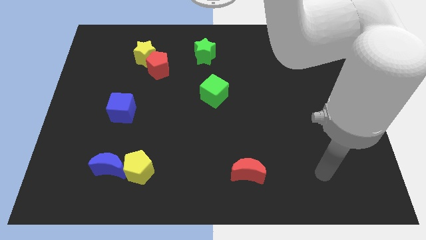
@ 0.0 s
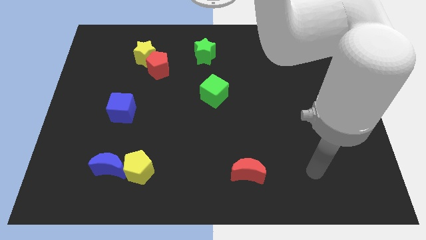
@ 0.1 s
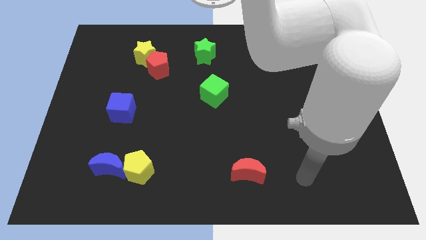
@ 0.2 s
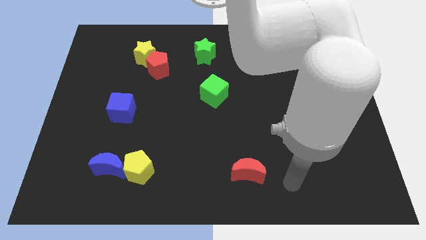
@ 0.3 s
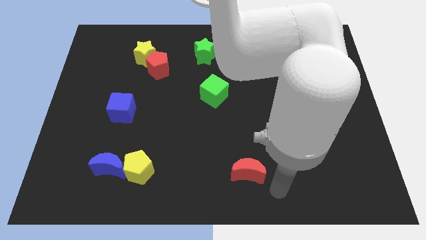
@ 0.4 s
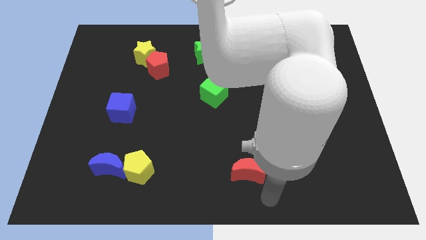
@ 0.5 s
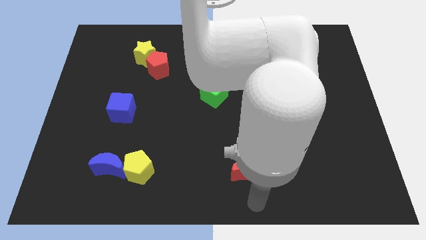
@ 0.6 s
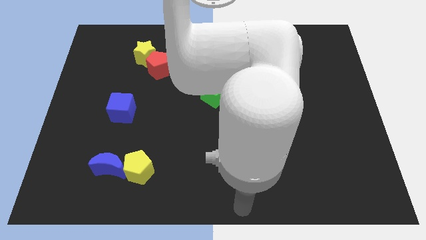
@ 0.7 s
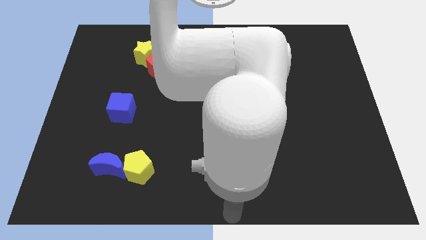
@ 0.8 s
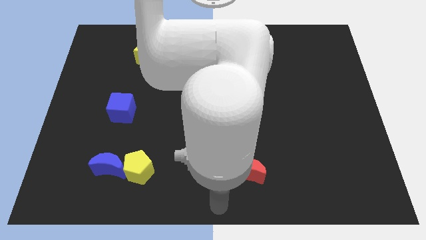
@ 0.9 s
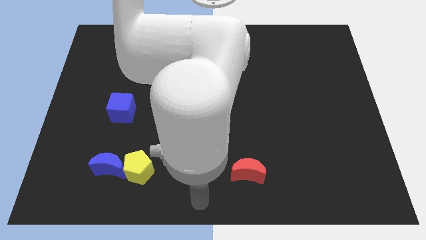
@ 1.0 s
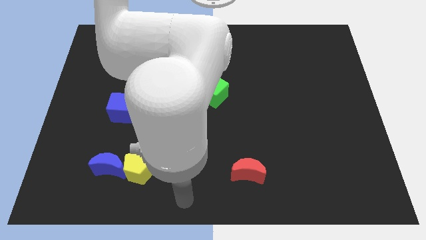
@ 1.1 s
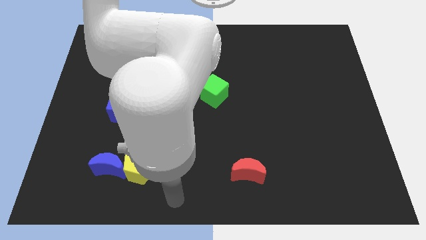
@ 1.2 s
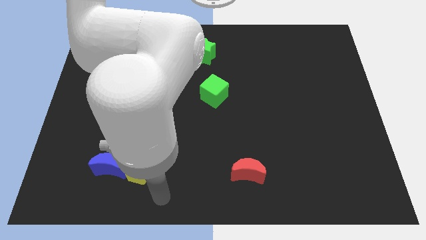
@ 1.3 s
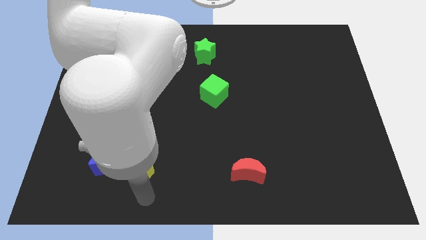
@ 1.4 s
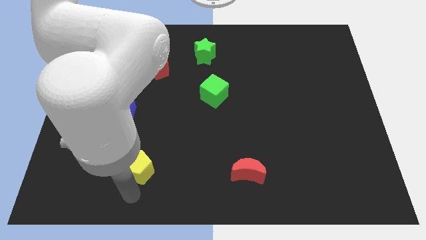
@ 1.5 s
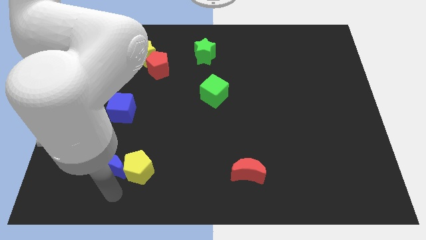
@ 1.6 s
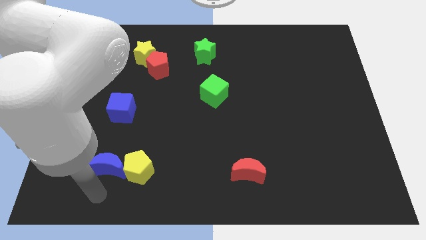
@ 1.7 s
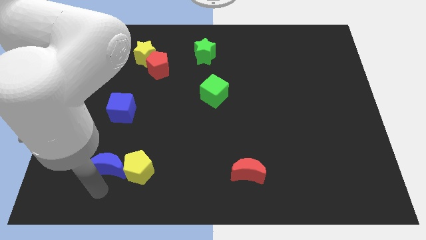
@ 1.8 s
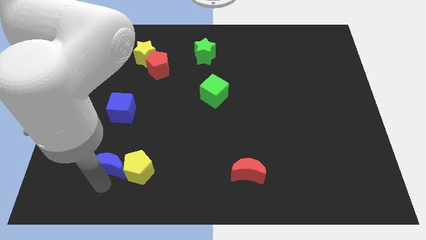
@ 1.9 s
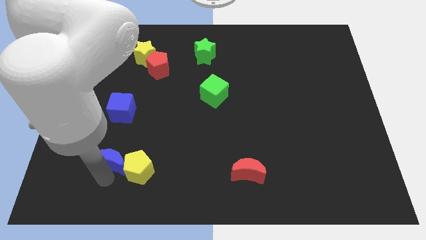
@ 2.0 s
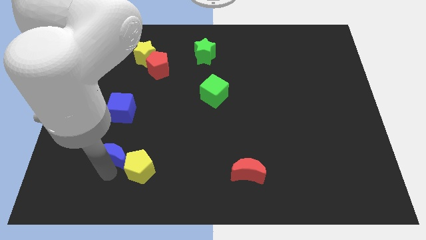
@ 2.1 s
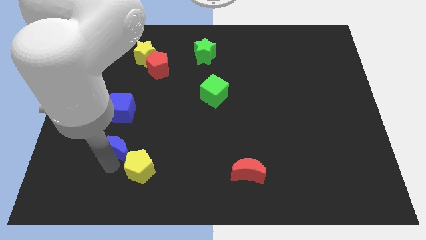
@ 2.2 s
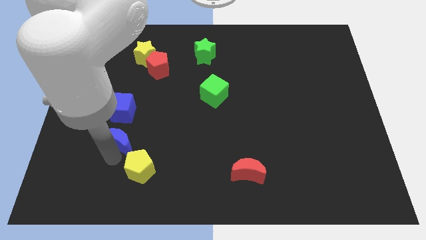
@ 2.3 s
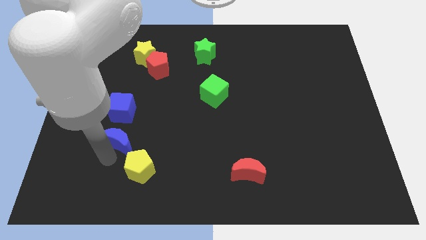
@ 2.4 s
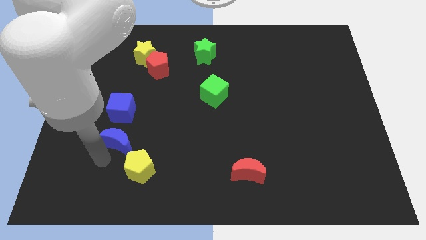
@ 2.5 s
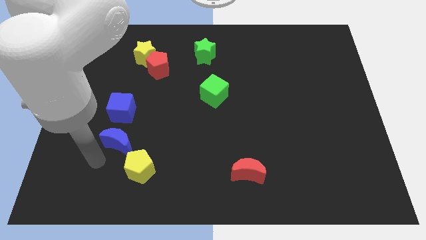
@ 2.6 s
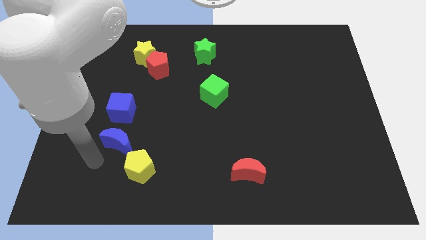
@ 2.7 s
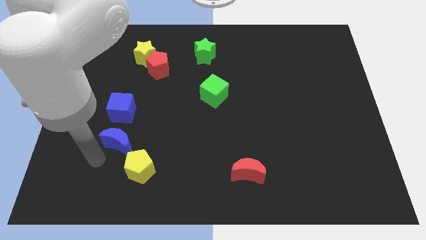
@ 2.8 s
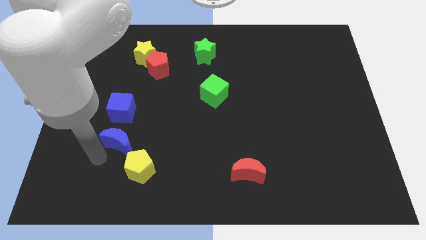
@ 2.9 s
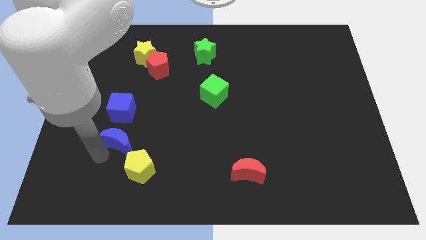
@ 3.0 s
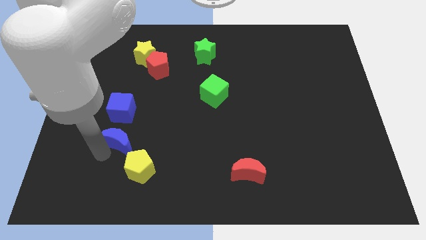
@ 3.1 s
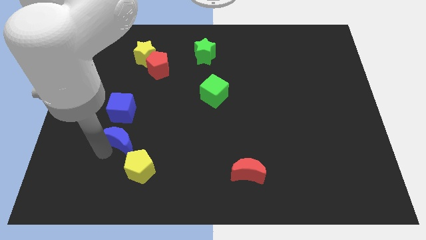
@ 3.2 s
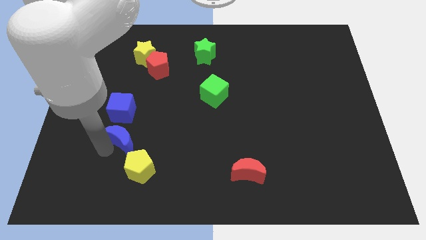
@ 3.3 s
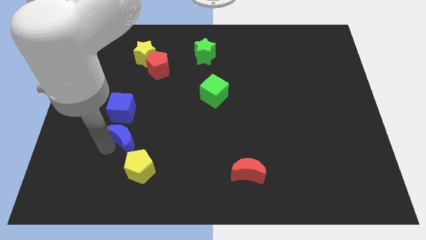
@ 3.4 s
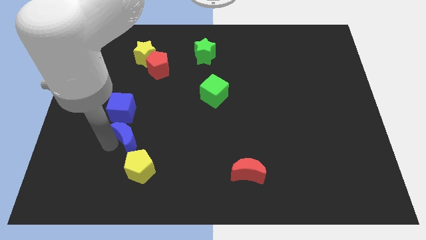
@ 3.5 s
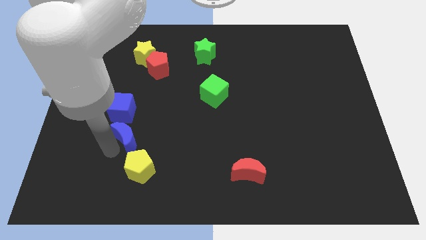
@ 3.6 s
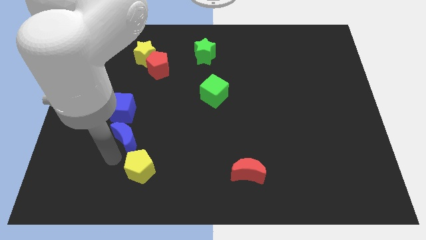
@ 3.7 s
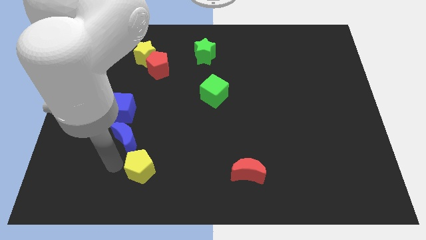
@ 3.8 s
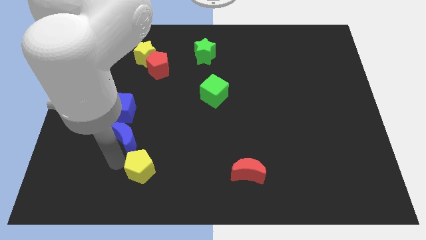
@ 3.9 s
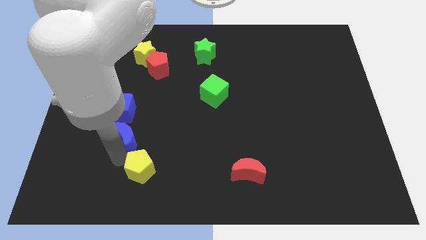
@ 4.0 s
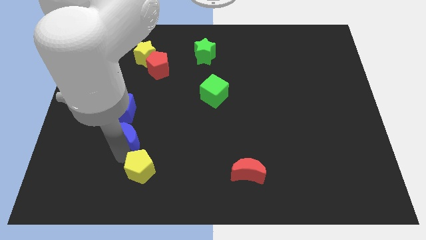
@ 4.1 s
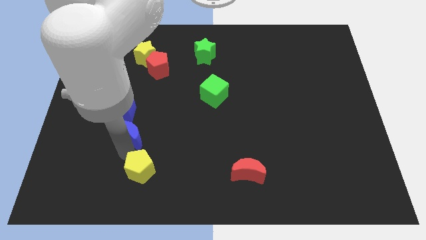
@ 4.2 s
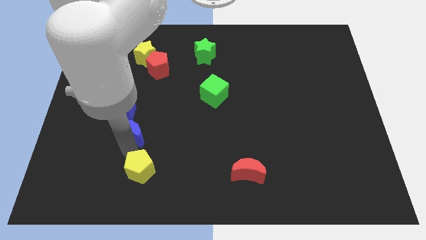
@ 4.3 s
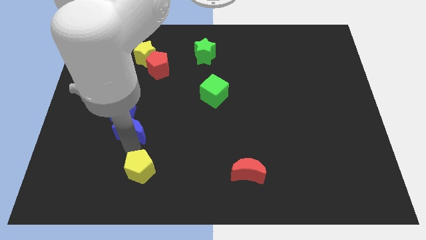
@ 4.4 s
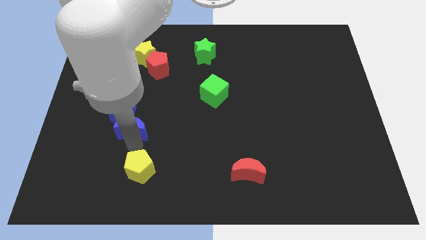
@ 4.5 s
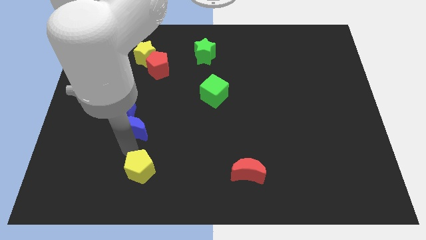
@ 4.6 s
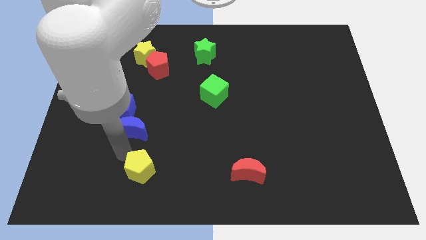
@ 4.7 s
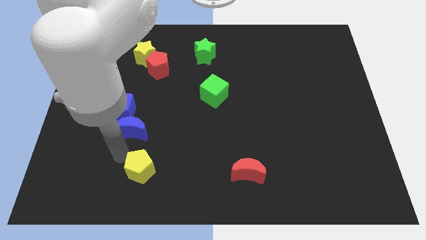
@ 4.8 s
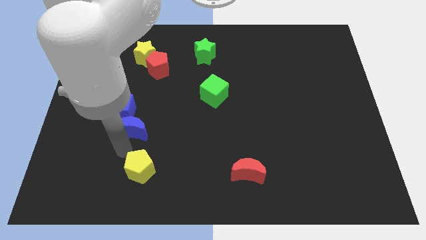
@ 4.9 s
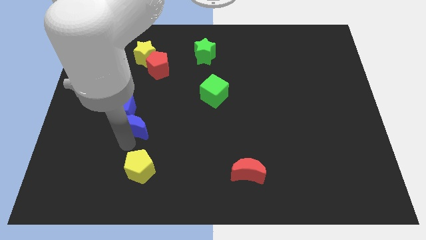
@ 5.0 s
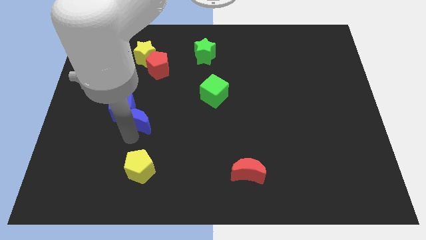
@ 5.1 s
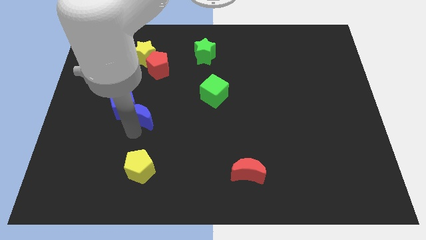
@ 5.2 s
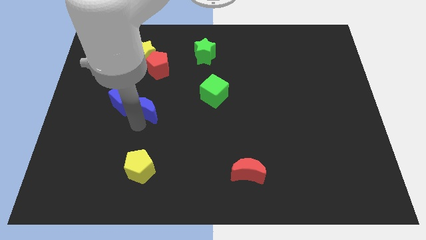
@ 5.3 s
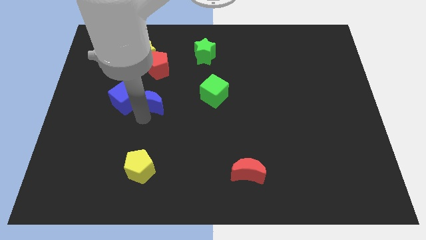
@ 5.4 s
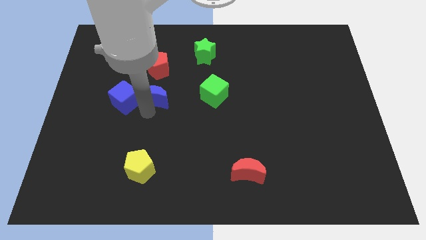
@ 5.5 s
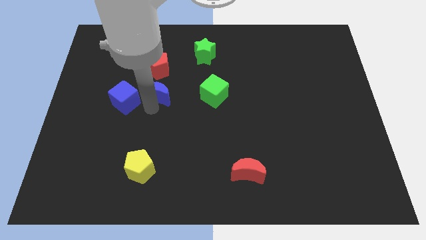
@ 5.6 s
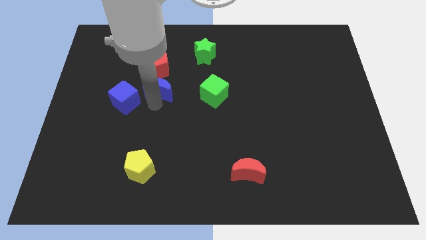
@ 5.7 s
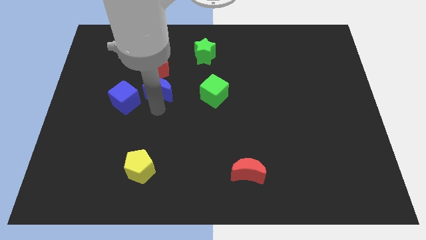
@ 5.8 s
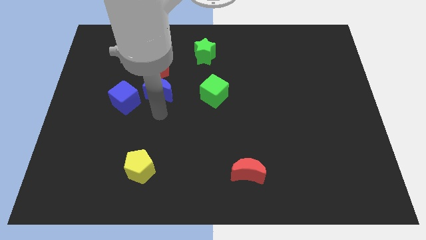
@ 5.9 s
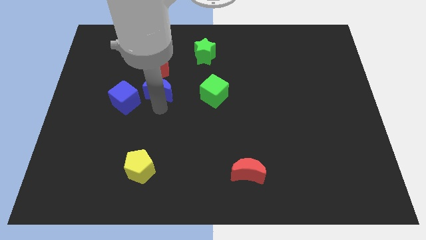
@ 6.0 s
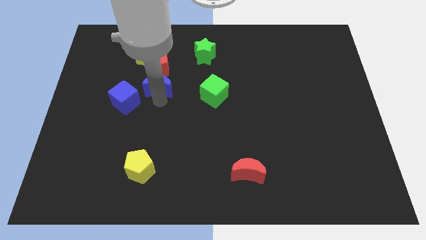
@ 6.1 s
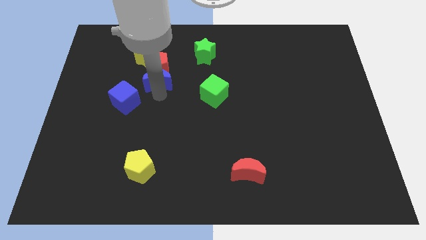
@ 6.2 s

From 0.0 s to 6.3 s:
put the blue moon towards the red pentagon

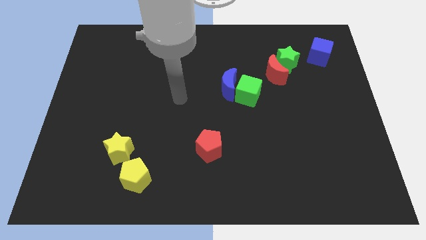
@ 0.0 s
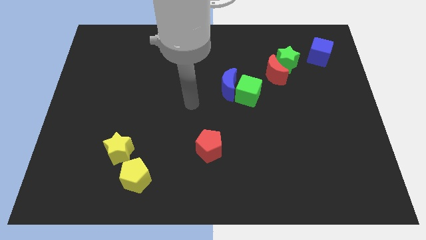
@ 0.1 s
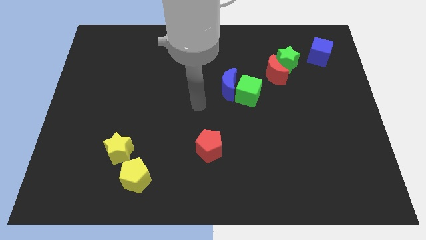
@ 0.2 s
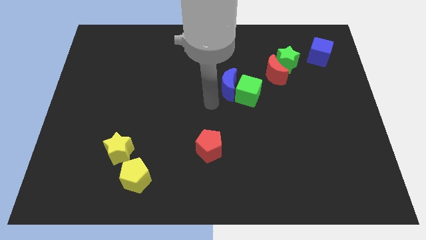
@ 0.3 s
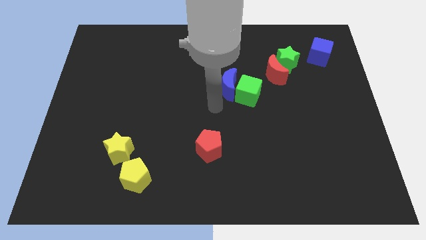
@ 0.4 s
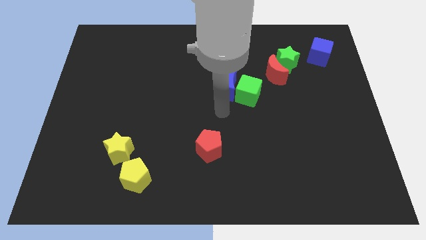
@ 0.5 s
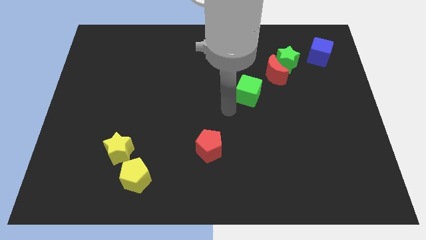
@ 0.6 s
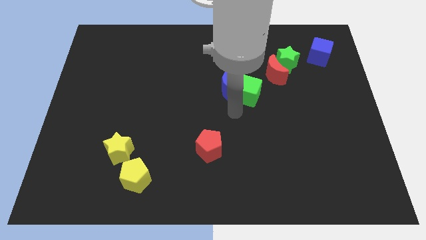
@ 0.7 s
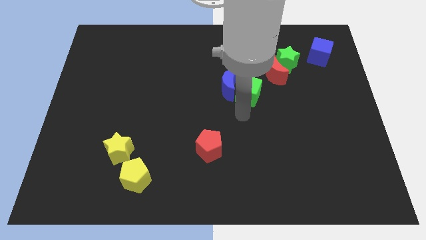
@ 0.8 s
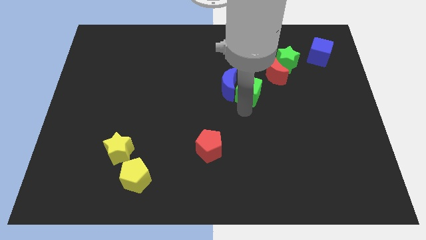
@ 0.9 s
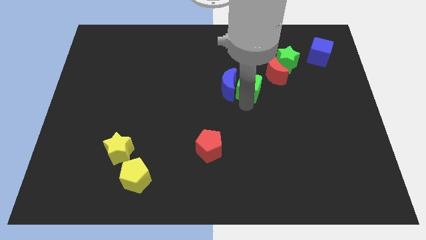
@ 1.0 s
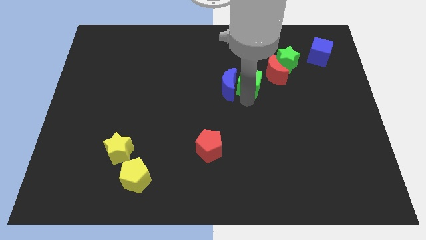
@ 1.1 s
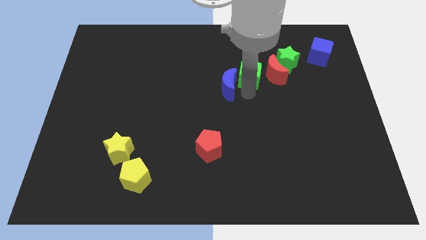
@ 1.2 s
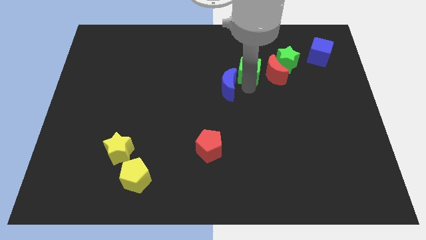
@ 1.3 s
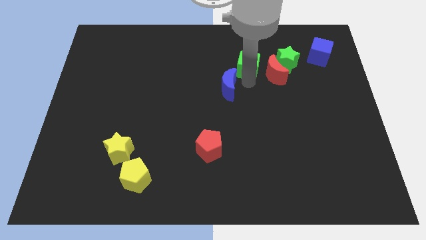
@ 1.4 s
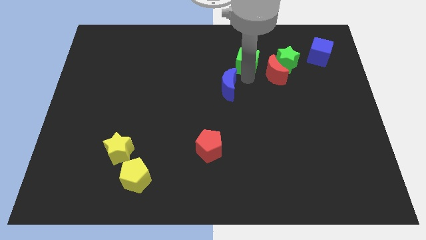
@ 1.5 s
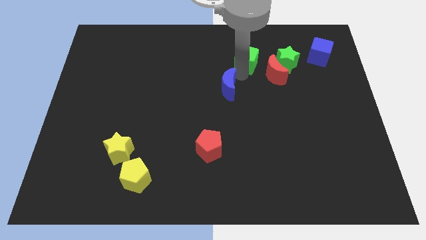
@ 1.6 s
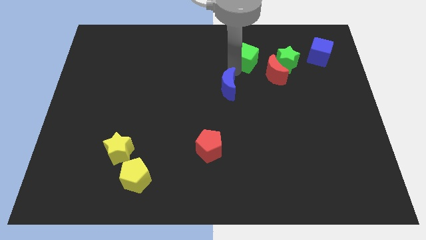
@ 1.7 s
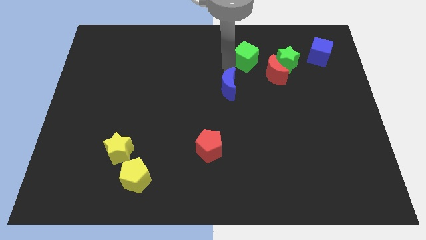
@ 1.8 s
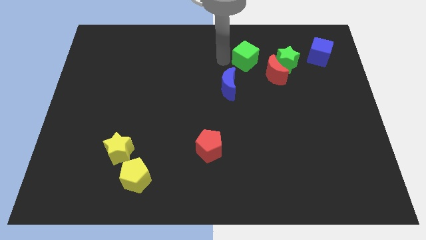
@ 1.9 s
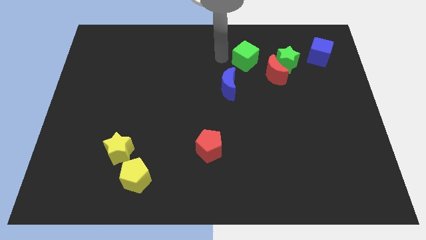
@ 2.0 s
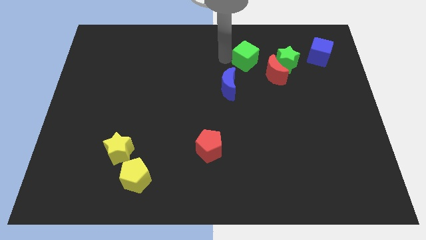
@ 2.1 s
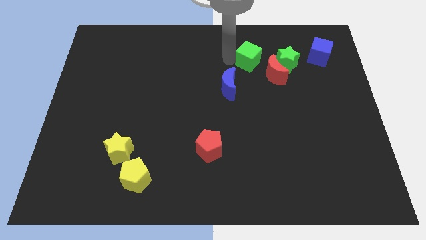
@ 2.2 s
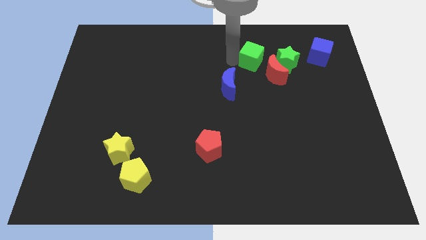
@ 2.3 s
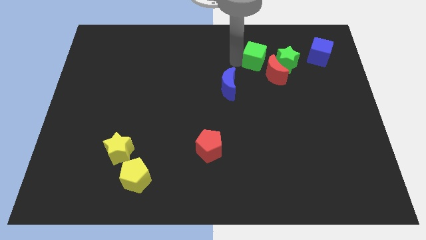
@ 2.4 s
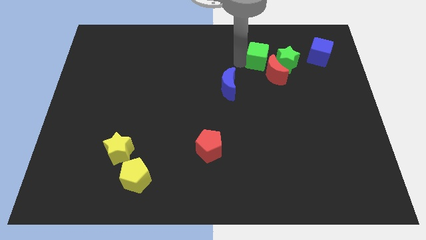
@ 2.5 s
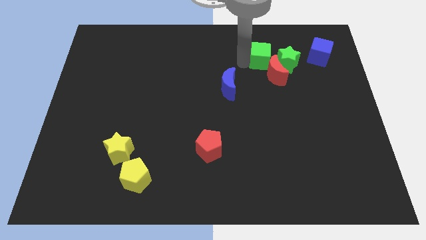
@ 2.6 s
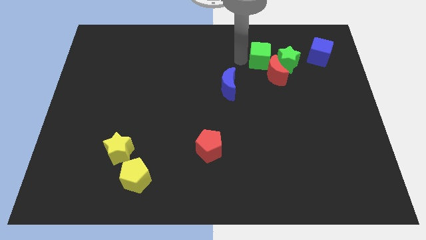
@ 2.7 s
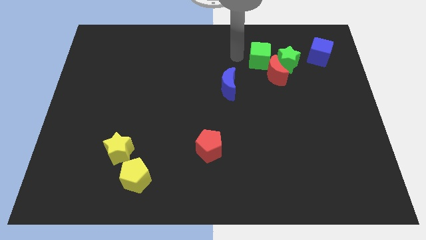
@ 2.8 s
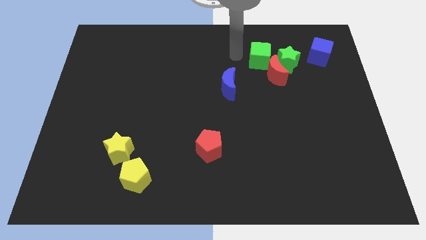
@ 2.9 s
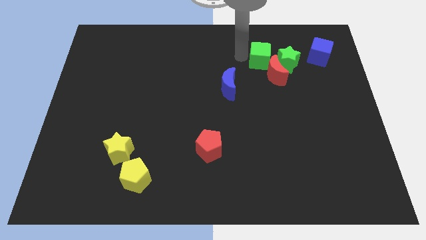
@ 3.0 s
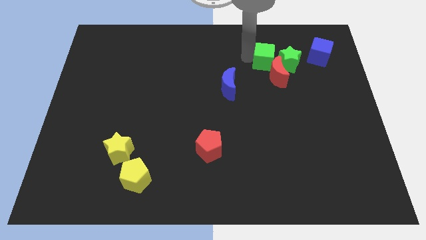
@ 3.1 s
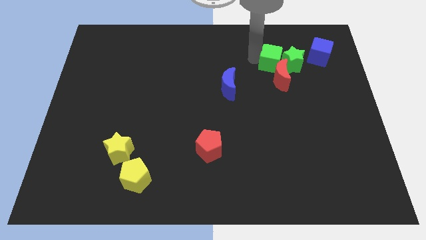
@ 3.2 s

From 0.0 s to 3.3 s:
put the green cube towards the green star
